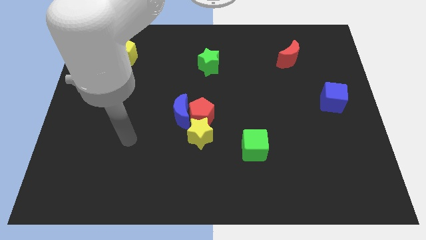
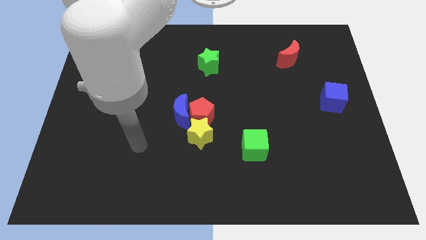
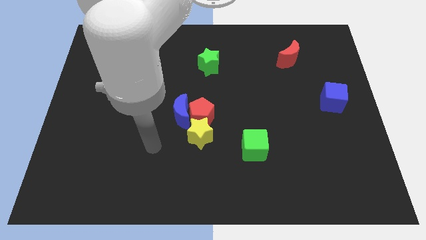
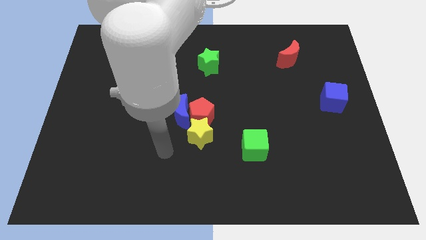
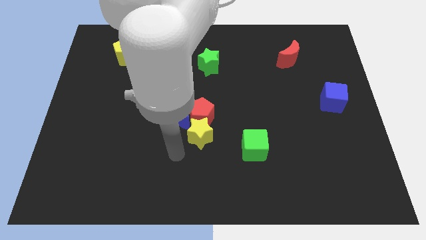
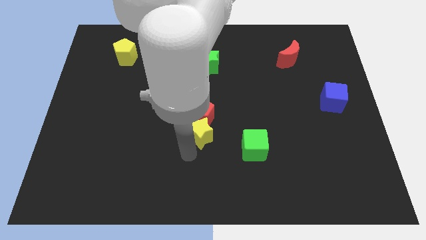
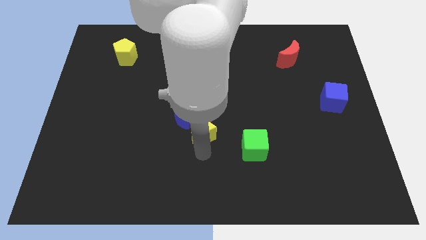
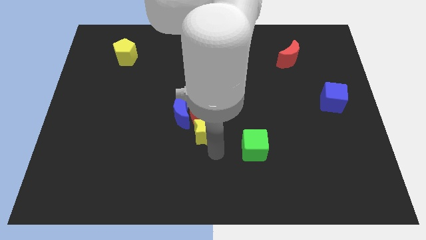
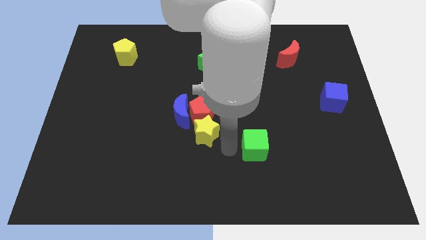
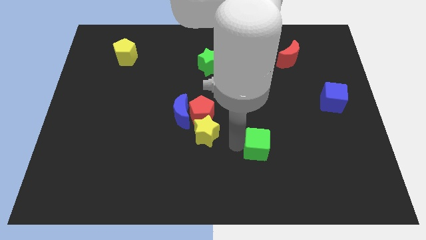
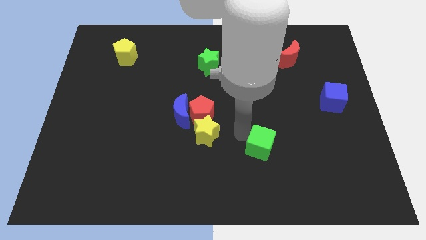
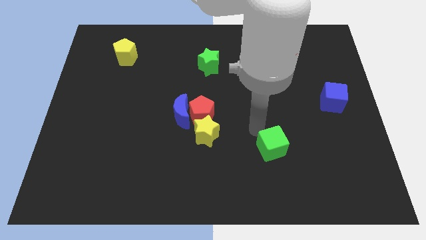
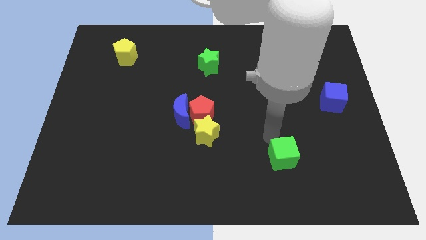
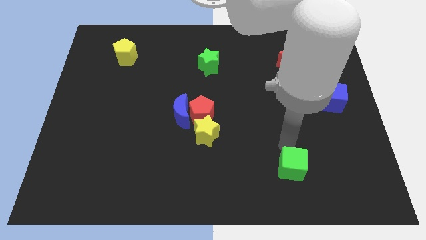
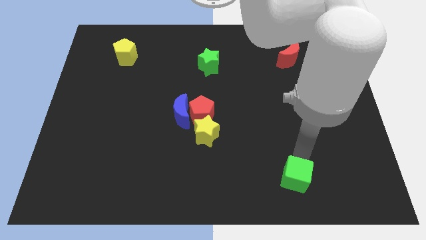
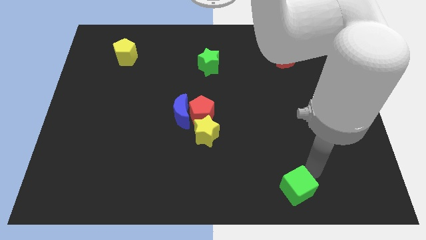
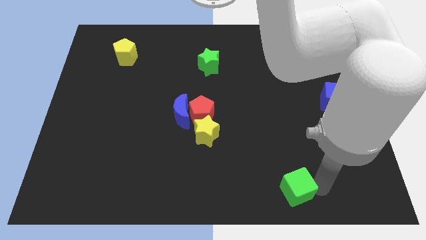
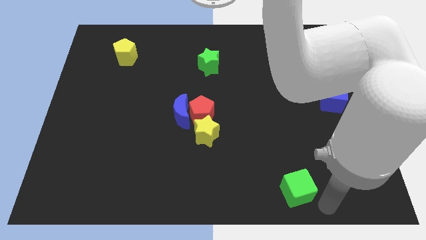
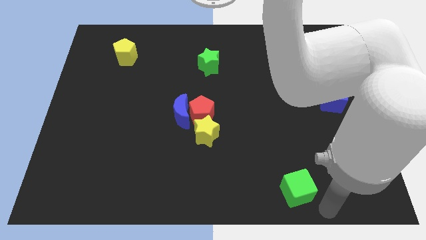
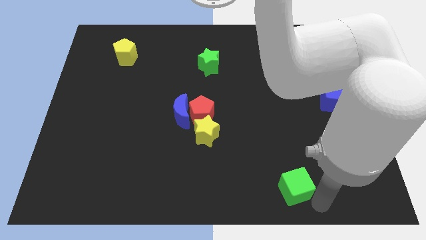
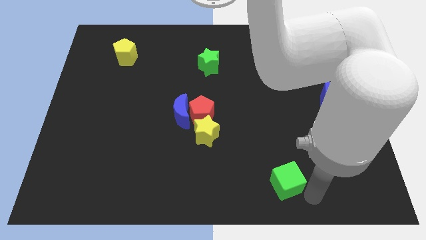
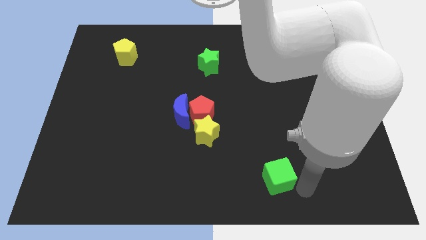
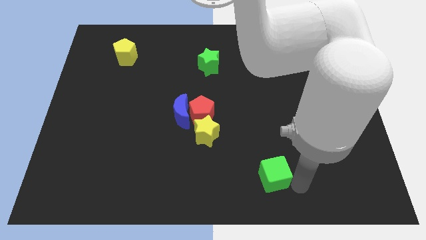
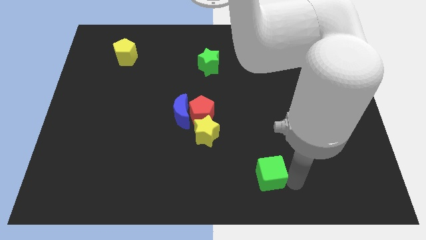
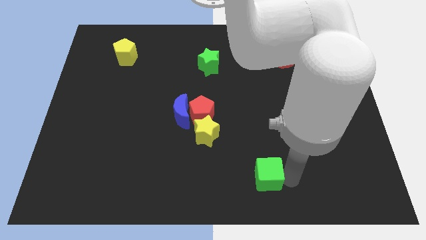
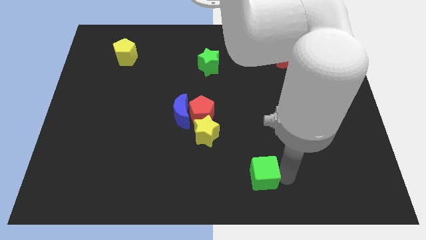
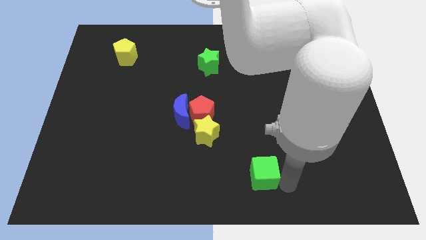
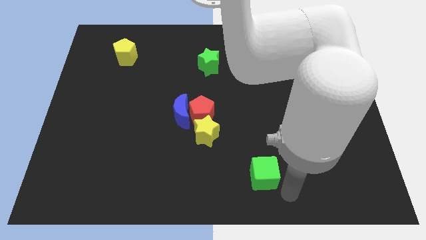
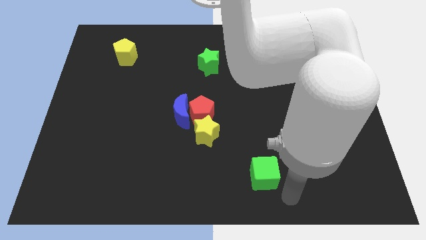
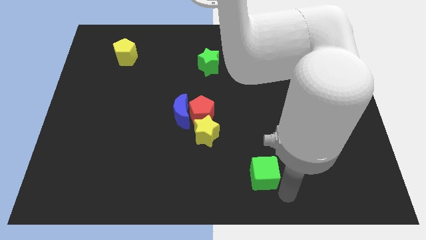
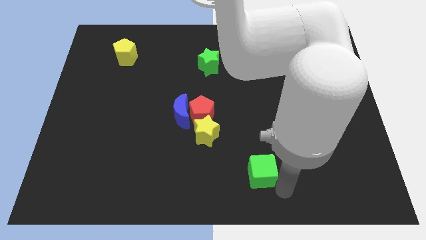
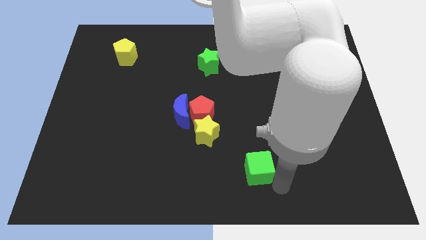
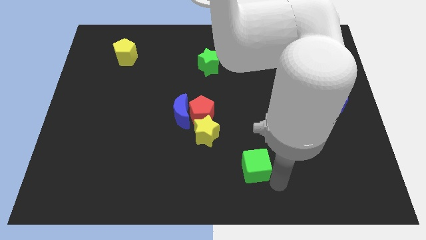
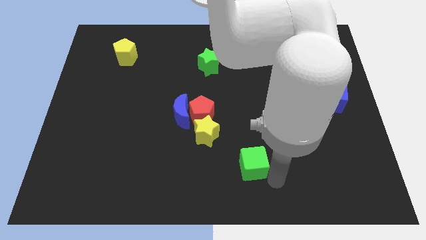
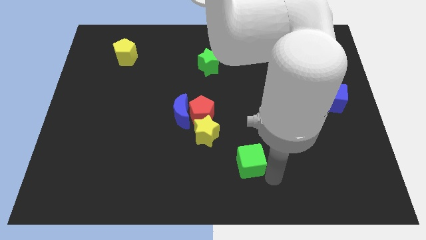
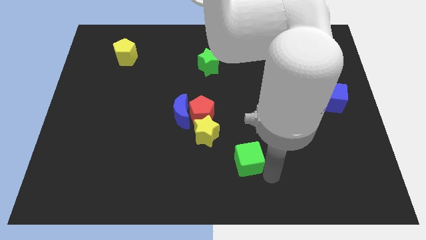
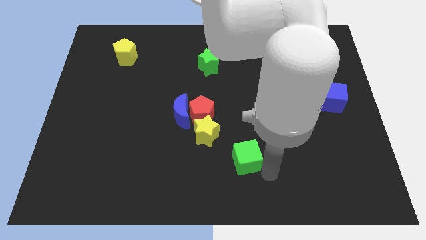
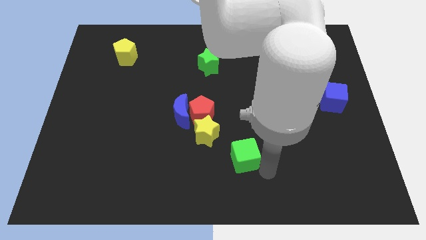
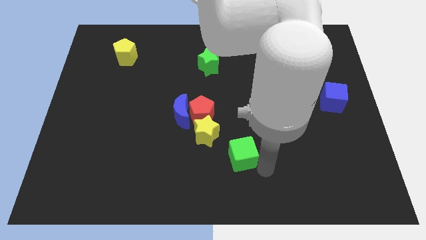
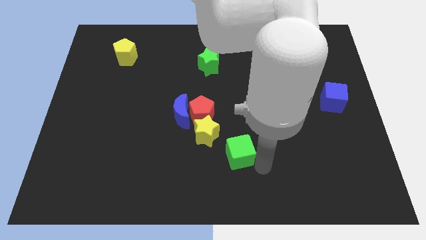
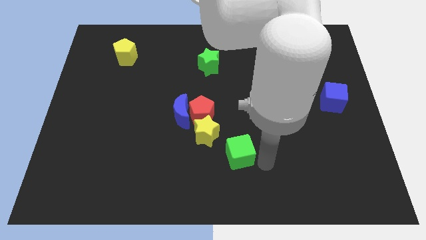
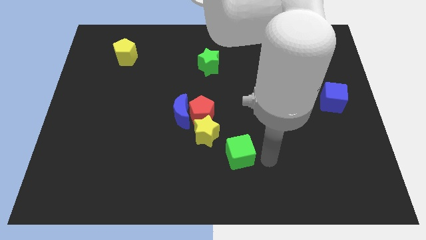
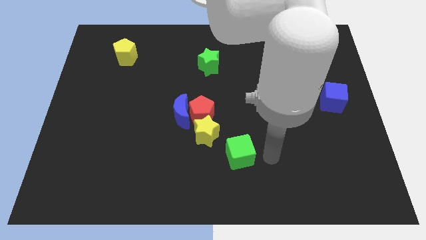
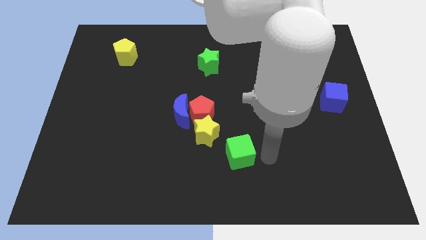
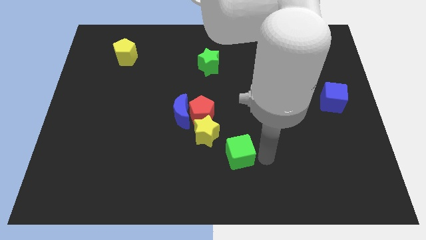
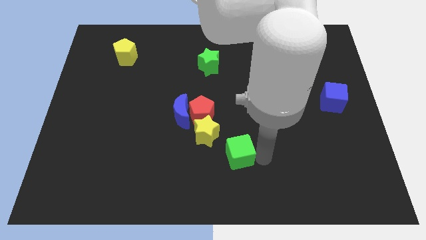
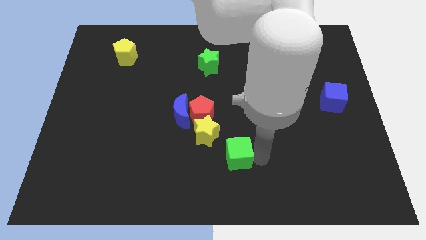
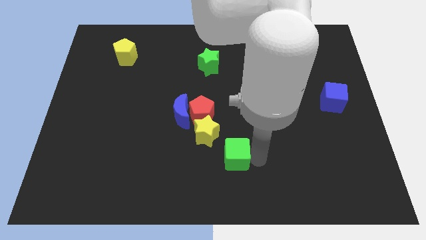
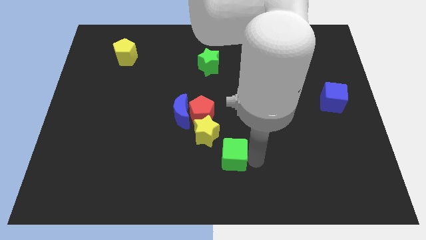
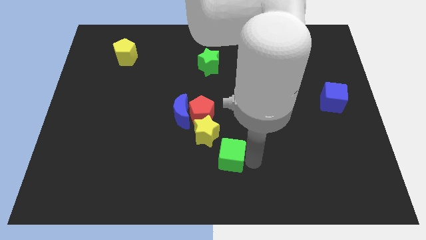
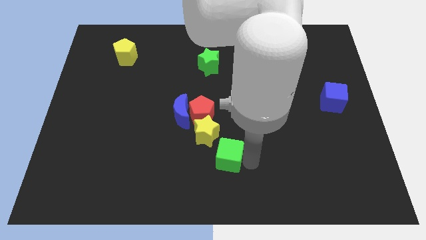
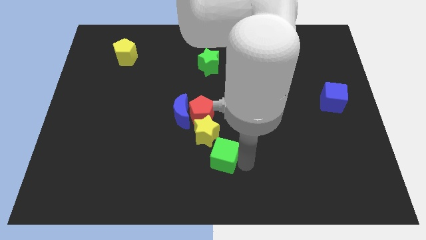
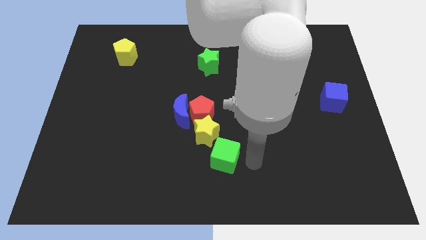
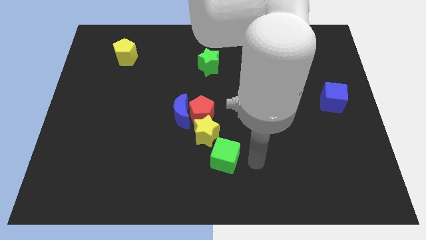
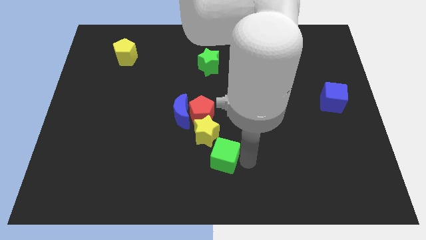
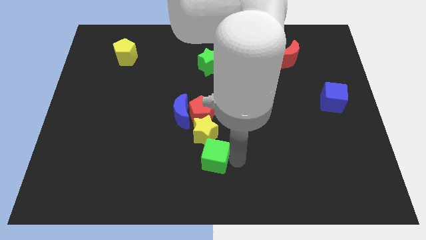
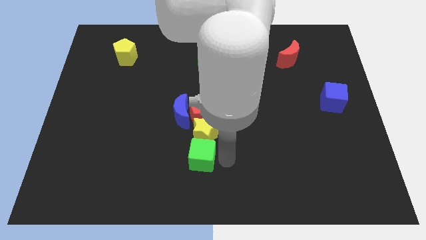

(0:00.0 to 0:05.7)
move the green cube to the bottom of the blue moon

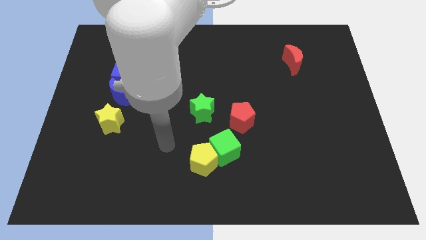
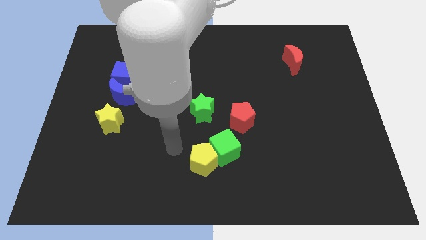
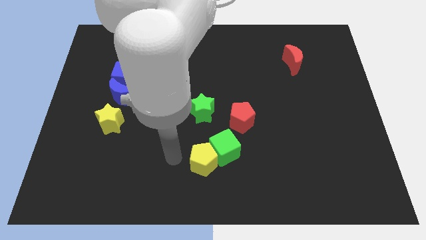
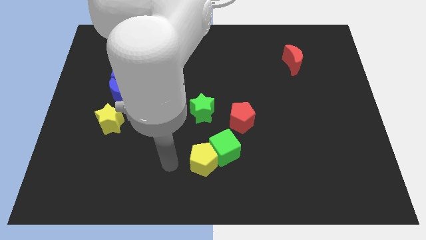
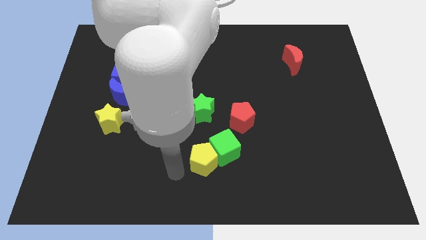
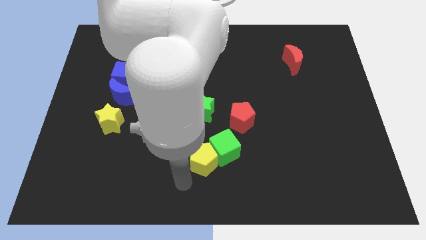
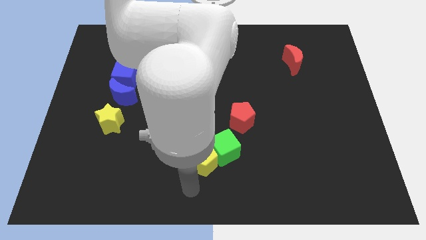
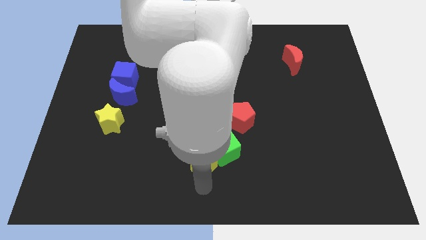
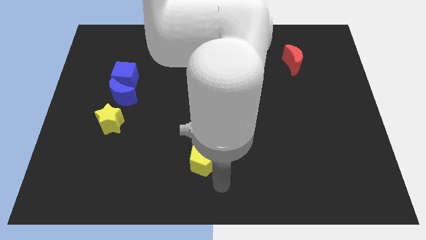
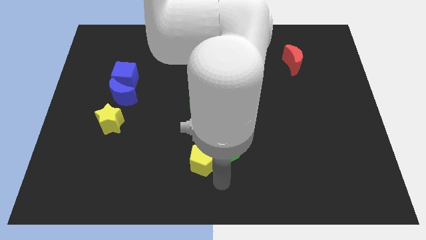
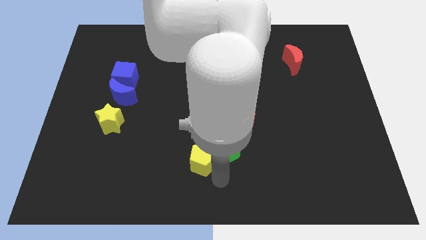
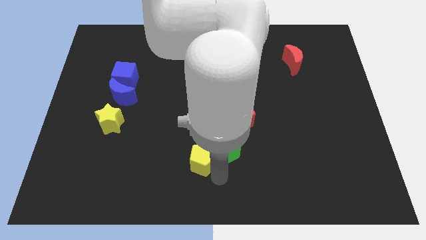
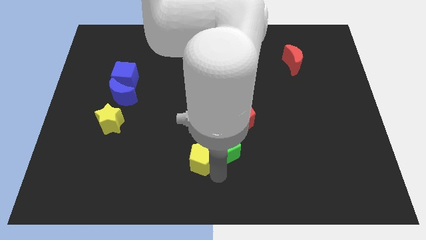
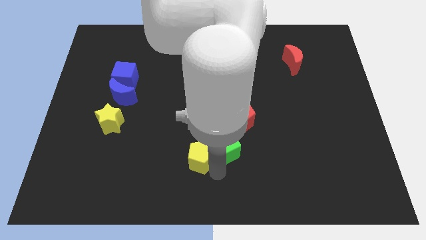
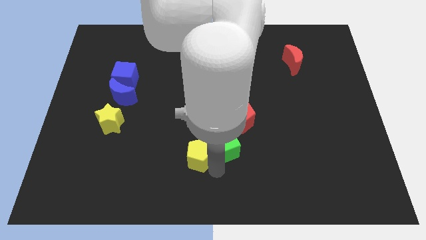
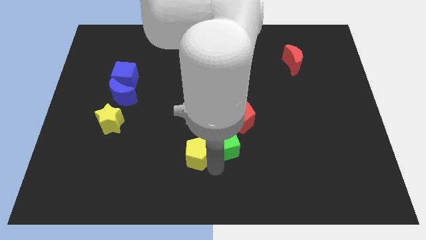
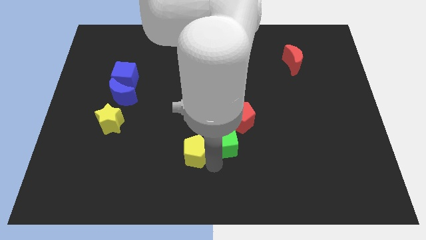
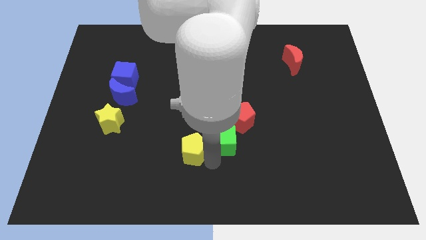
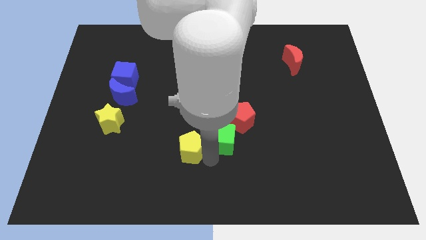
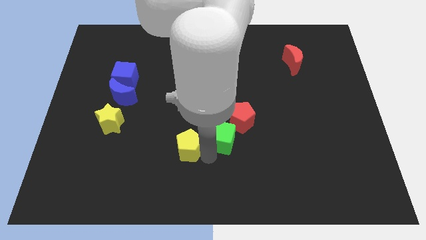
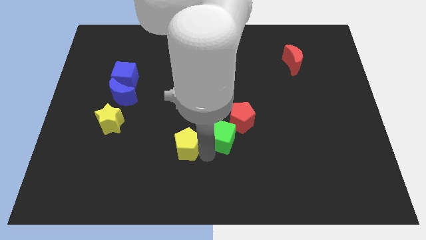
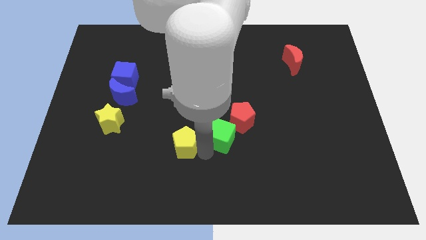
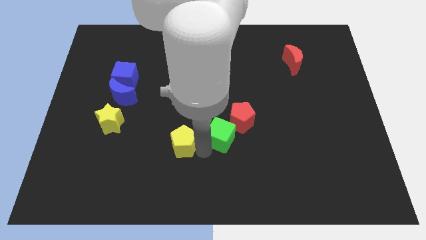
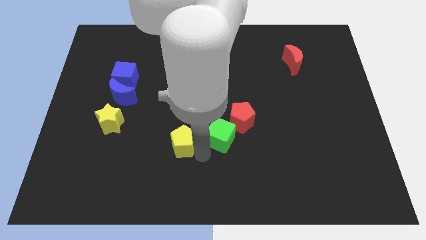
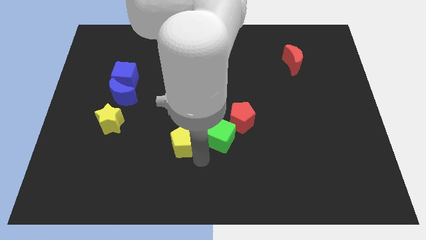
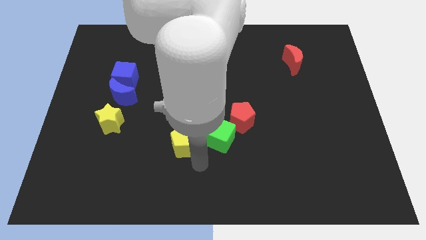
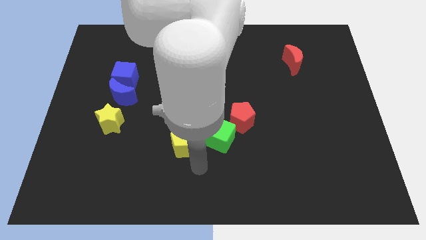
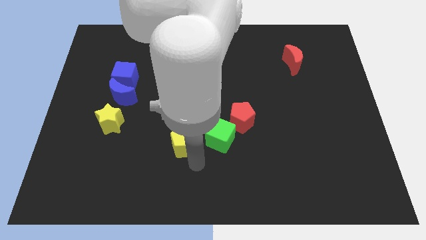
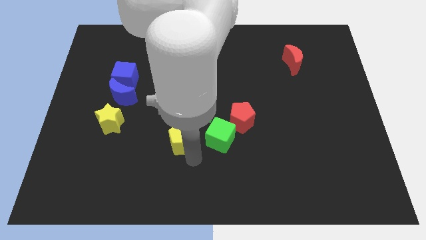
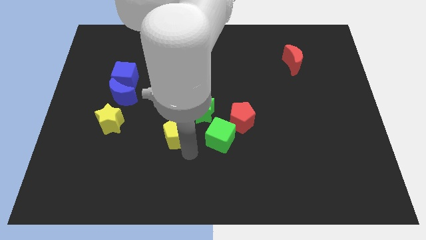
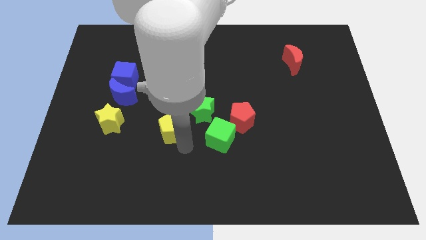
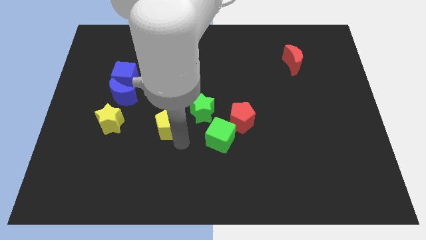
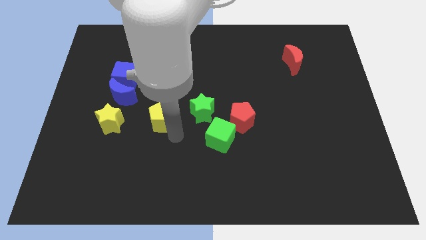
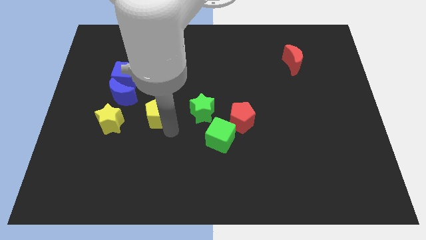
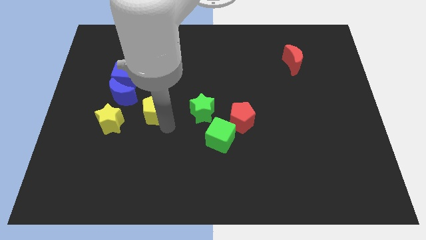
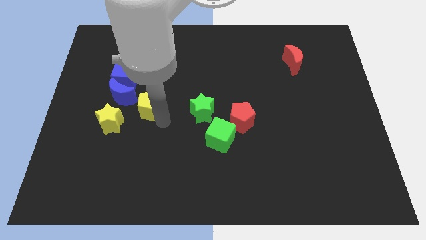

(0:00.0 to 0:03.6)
move the yellow pentagon to the bottom right side of the blue cube
